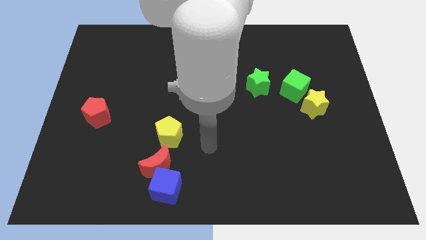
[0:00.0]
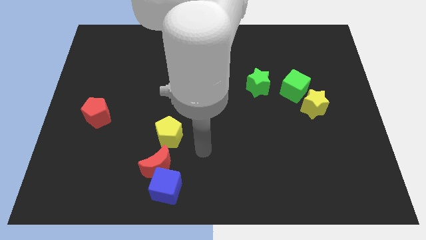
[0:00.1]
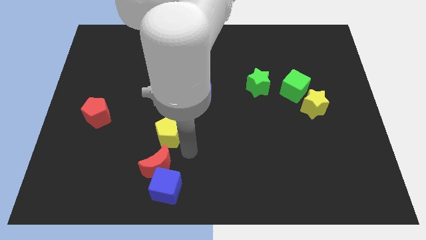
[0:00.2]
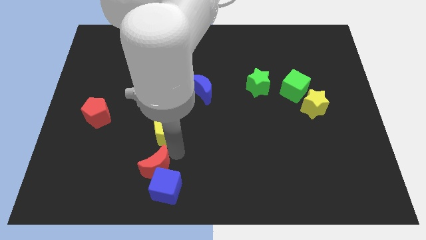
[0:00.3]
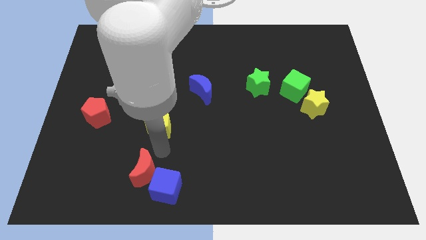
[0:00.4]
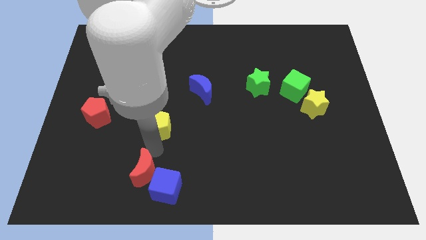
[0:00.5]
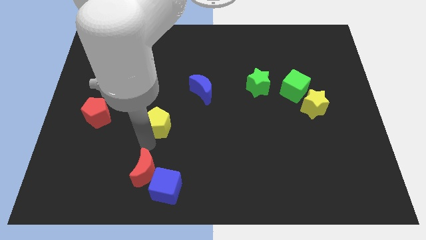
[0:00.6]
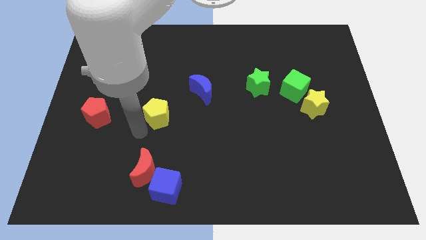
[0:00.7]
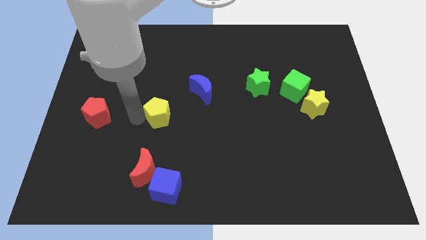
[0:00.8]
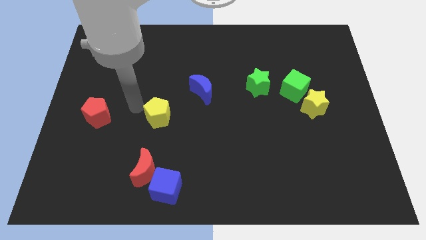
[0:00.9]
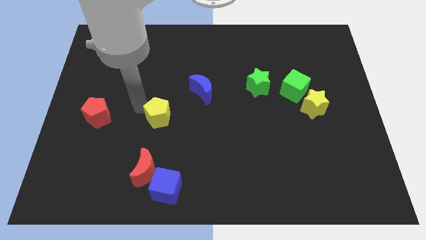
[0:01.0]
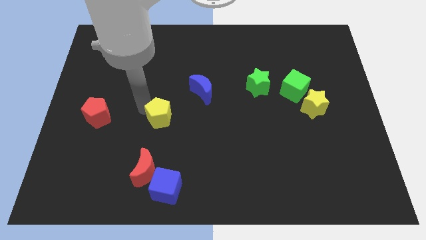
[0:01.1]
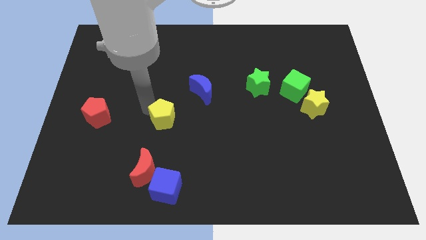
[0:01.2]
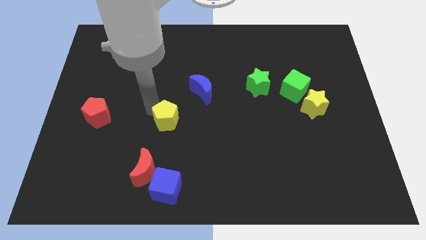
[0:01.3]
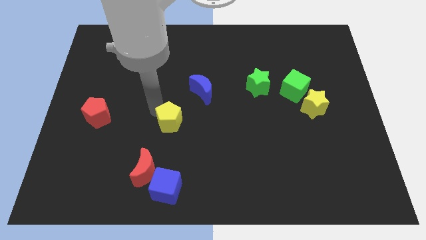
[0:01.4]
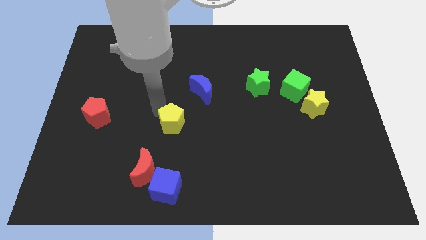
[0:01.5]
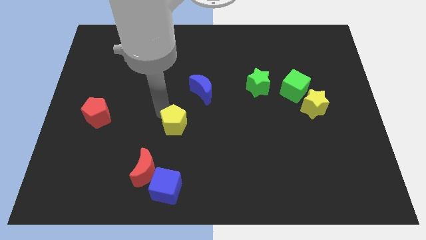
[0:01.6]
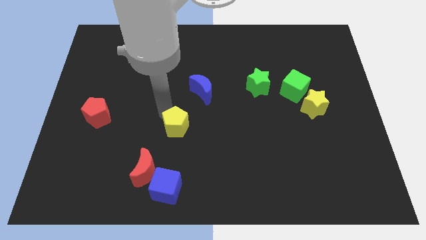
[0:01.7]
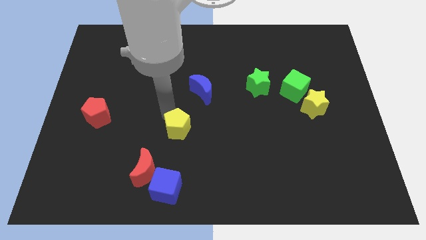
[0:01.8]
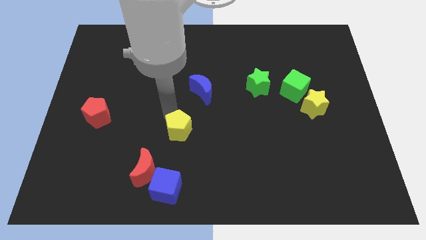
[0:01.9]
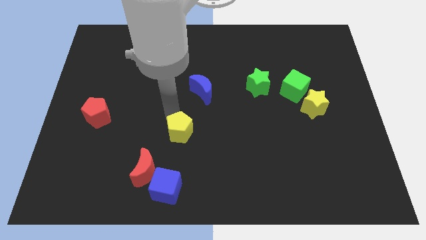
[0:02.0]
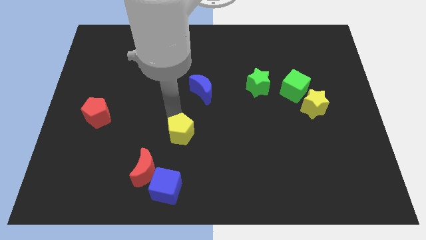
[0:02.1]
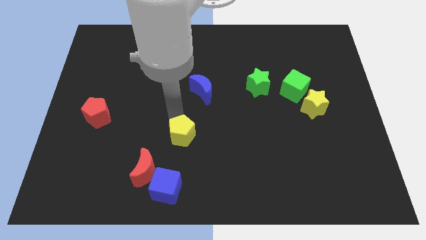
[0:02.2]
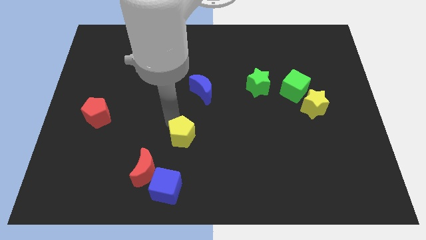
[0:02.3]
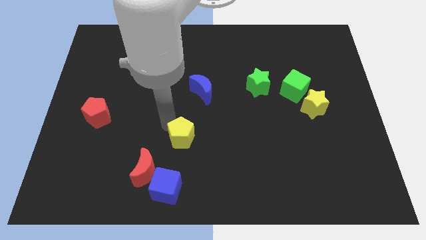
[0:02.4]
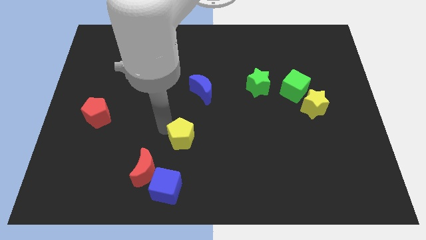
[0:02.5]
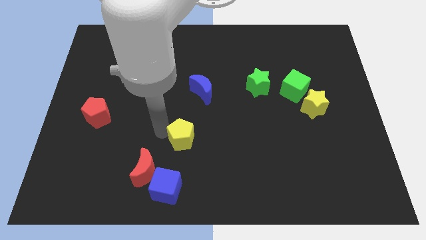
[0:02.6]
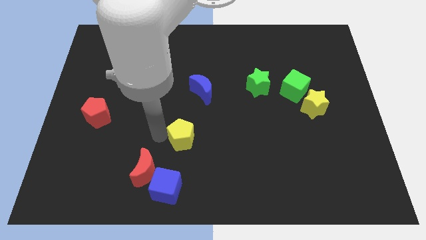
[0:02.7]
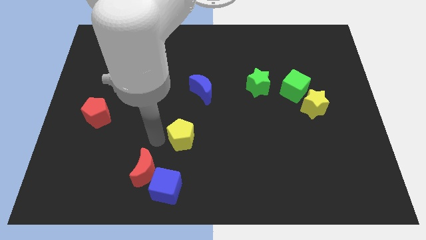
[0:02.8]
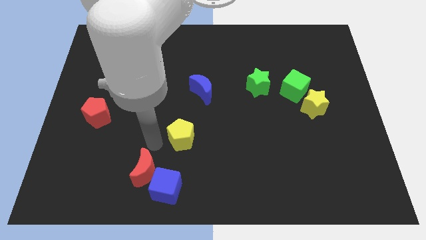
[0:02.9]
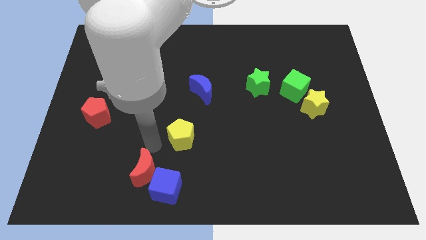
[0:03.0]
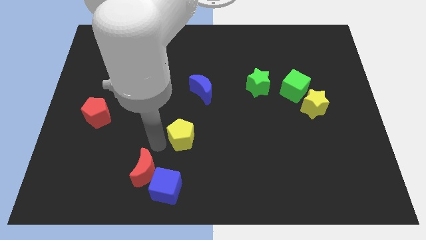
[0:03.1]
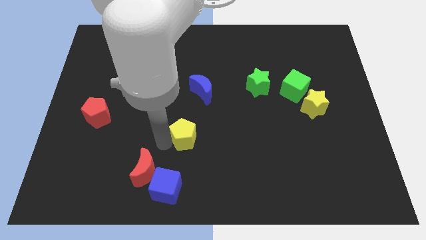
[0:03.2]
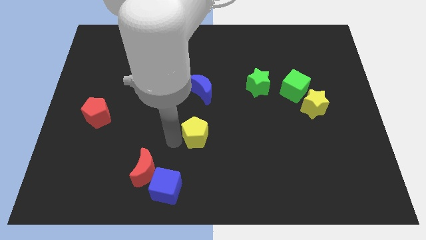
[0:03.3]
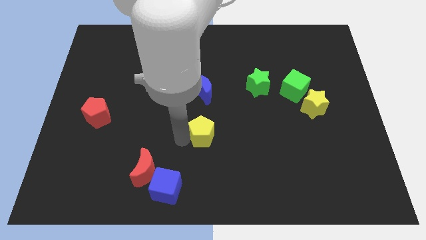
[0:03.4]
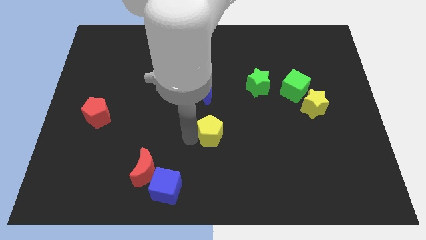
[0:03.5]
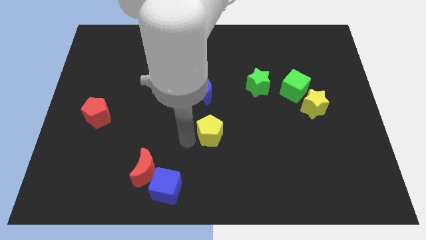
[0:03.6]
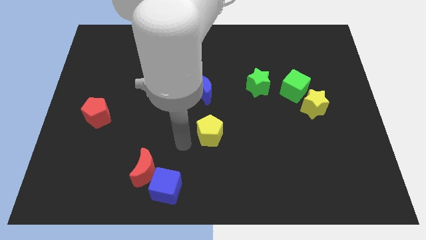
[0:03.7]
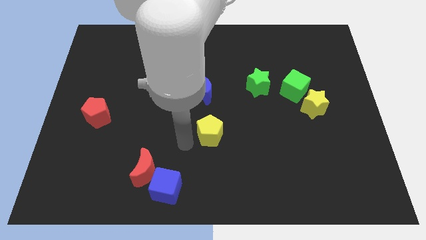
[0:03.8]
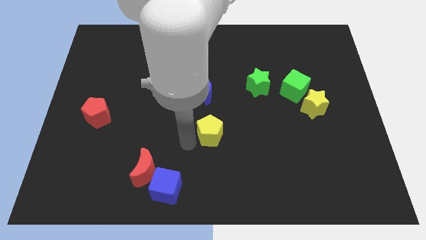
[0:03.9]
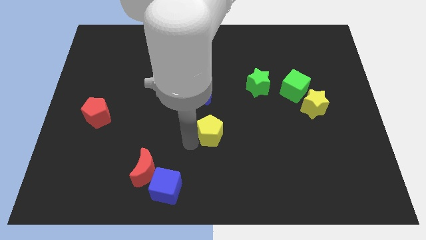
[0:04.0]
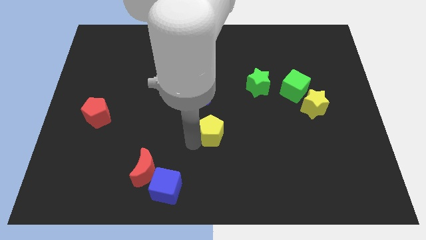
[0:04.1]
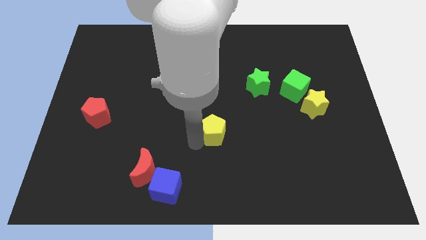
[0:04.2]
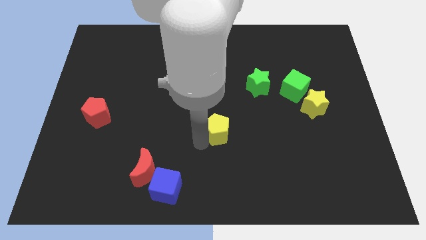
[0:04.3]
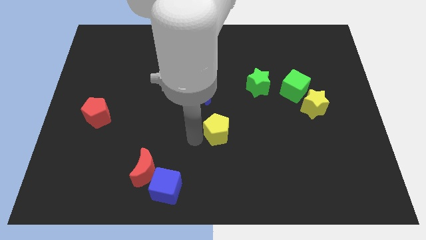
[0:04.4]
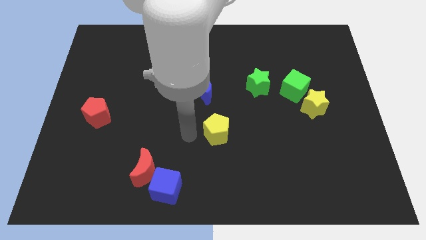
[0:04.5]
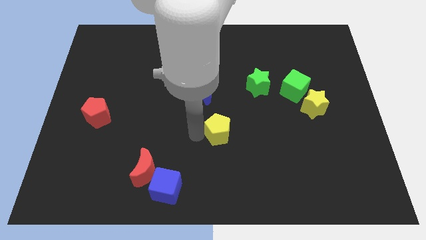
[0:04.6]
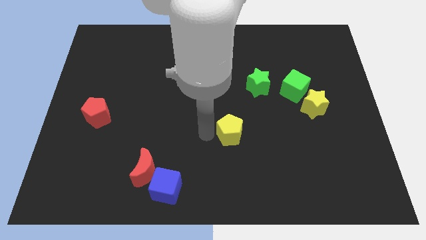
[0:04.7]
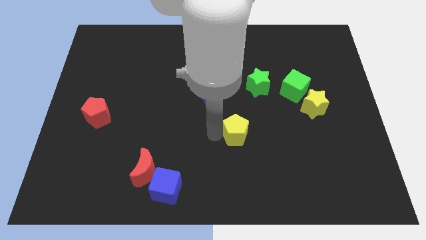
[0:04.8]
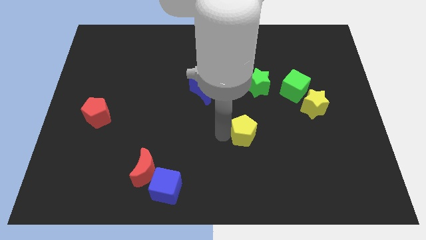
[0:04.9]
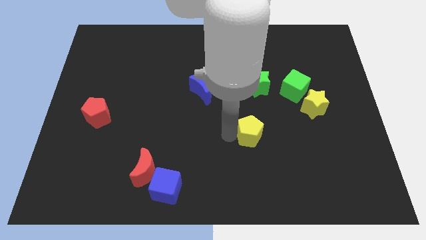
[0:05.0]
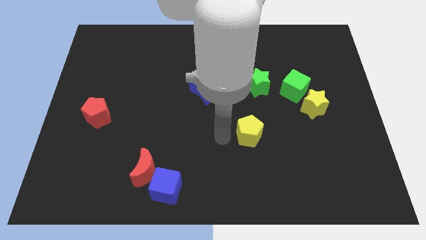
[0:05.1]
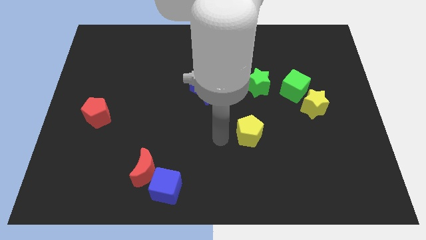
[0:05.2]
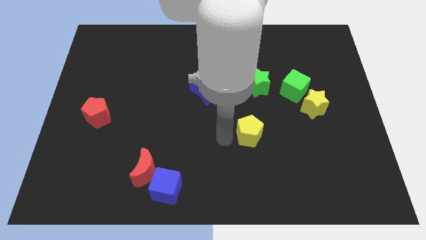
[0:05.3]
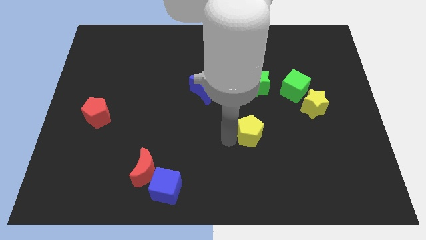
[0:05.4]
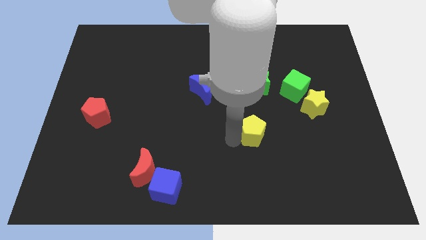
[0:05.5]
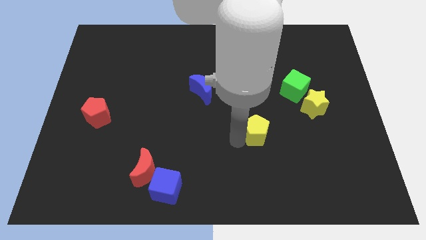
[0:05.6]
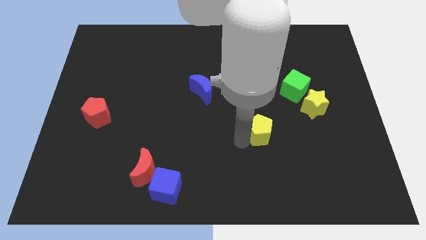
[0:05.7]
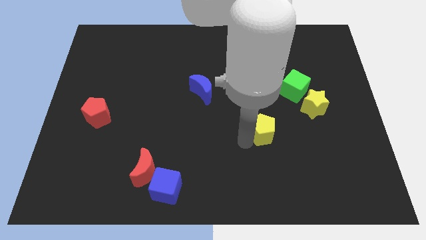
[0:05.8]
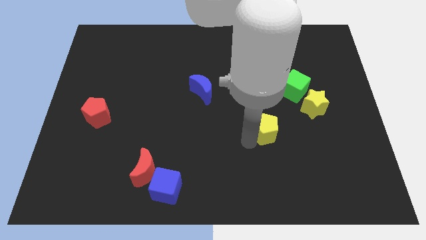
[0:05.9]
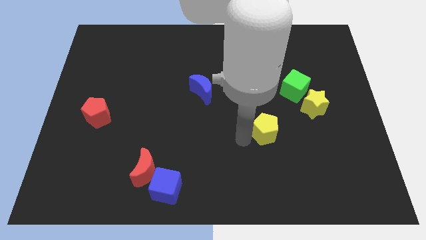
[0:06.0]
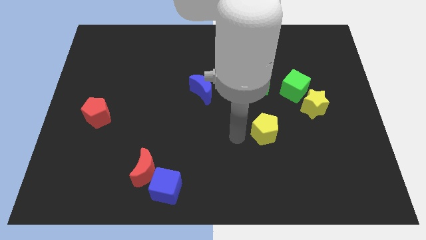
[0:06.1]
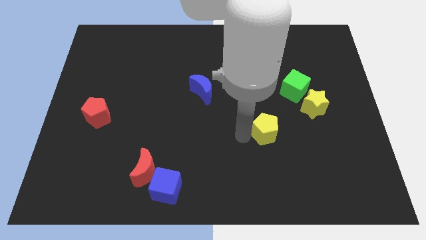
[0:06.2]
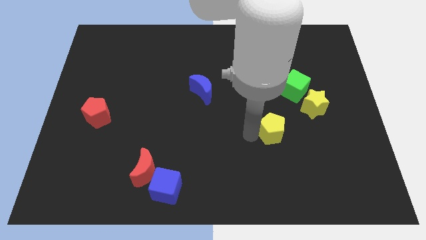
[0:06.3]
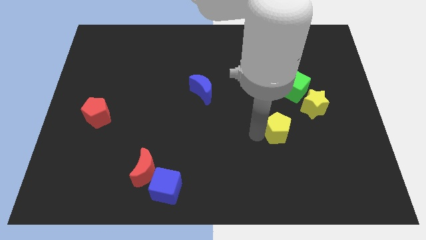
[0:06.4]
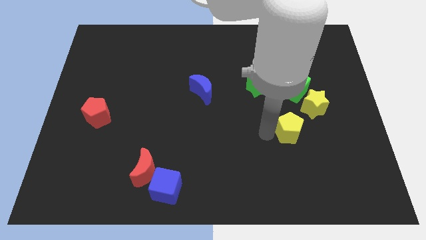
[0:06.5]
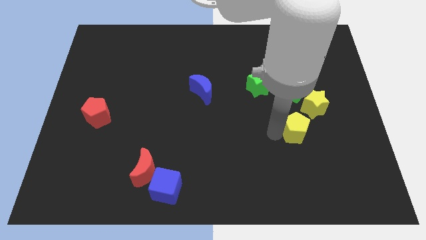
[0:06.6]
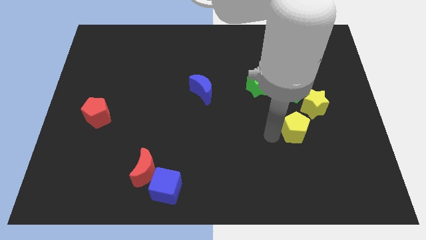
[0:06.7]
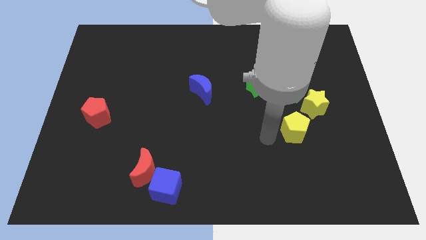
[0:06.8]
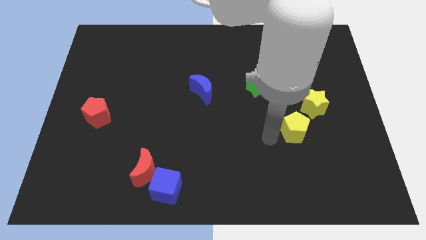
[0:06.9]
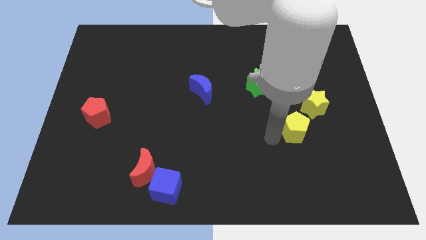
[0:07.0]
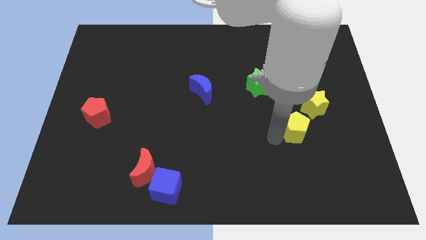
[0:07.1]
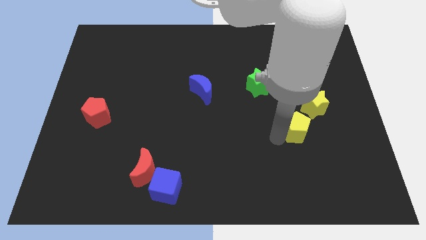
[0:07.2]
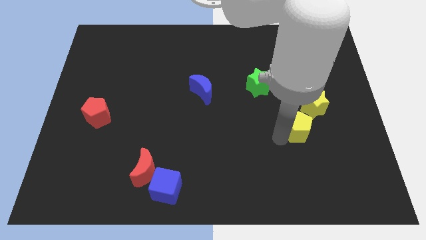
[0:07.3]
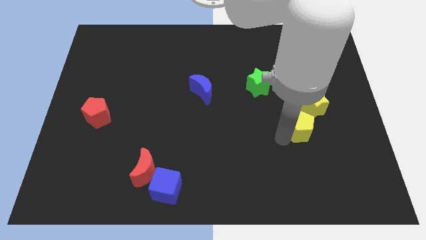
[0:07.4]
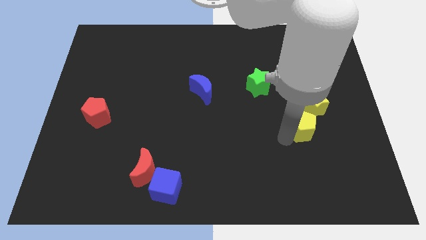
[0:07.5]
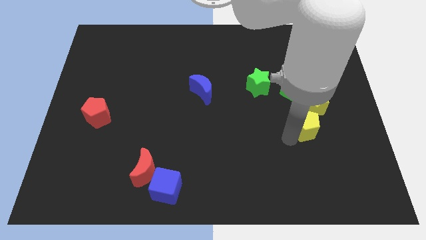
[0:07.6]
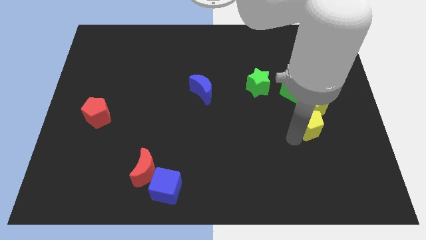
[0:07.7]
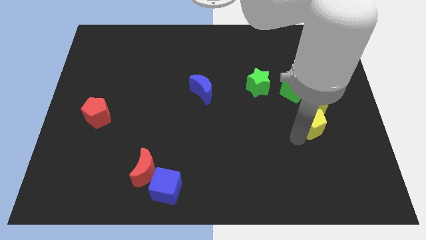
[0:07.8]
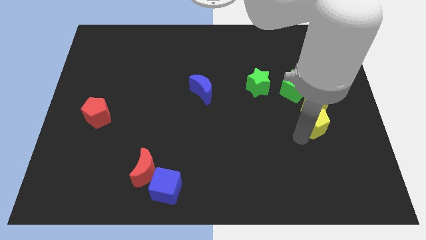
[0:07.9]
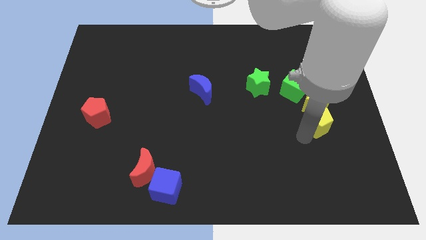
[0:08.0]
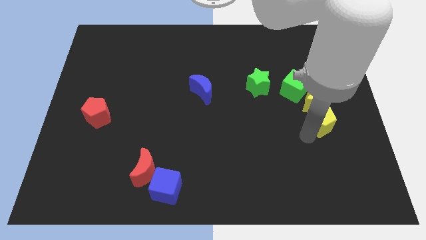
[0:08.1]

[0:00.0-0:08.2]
push the yellow pentagon to the bottom right of the green cube
